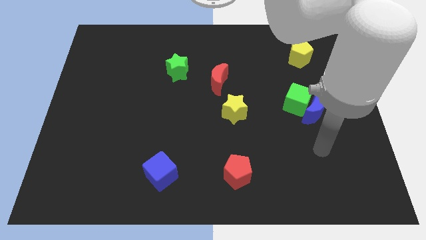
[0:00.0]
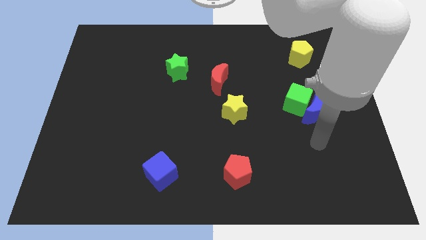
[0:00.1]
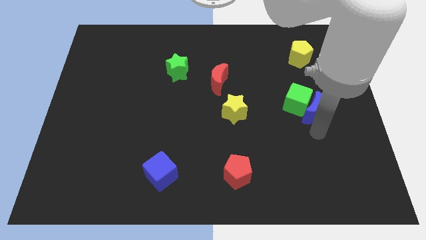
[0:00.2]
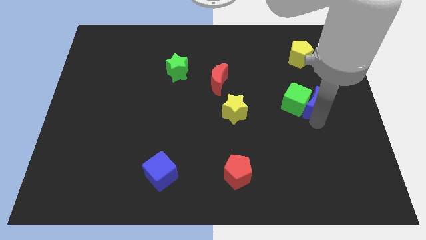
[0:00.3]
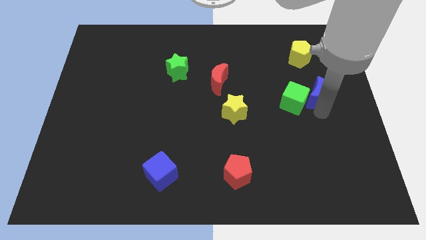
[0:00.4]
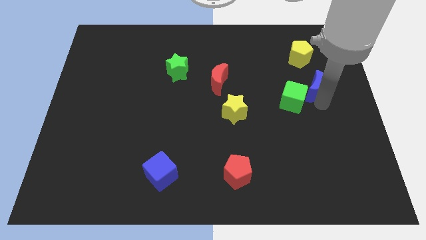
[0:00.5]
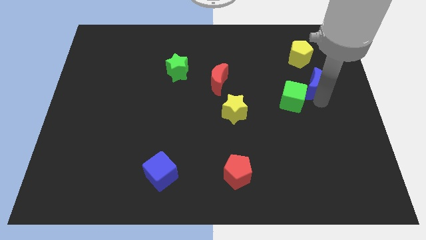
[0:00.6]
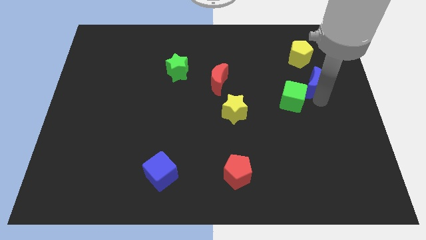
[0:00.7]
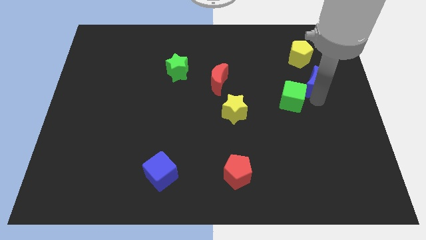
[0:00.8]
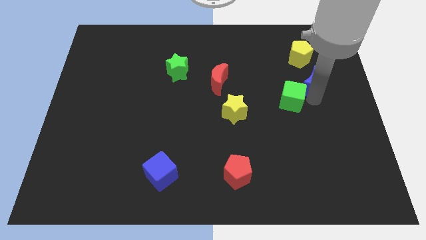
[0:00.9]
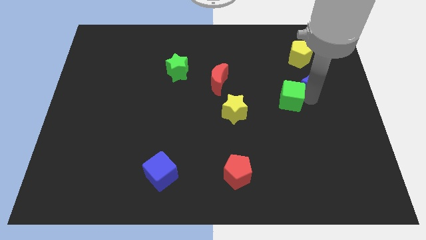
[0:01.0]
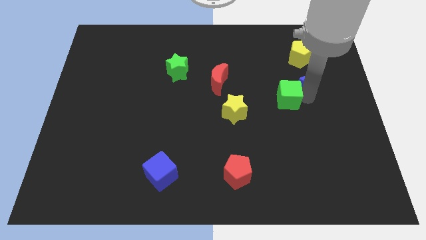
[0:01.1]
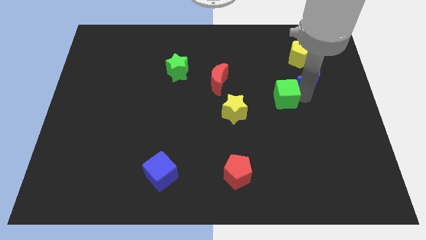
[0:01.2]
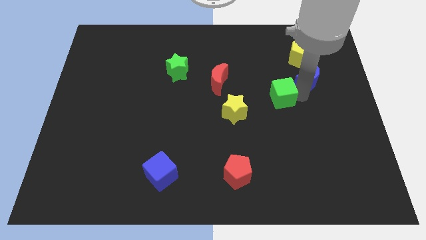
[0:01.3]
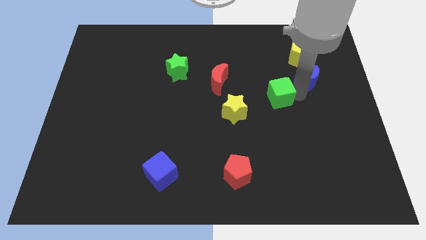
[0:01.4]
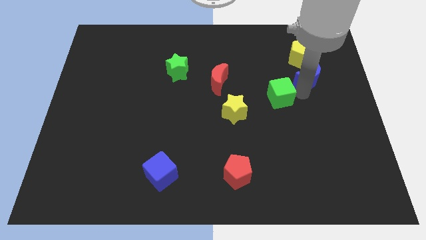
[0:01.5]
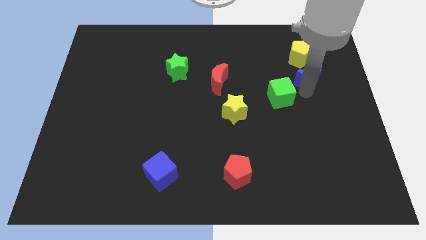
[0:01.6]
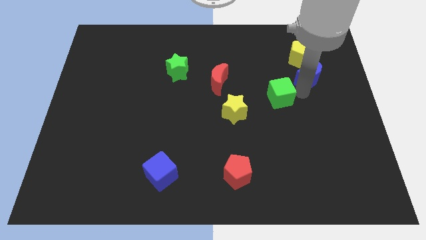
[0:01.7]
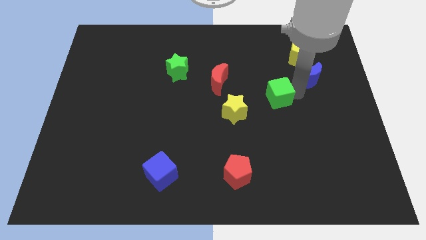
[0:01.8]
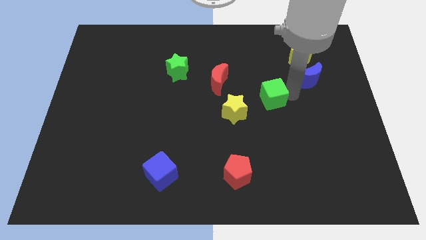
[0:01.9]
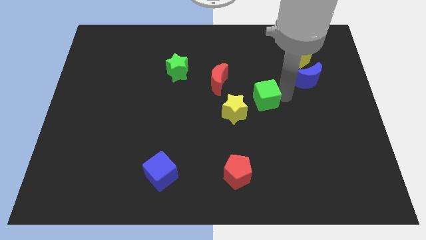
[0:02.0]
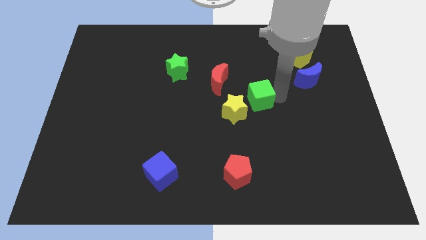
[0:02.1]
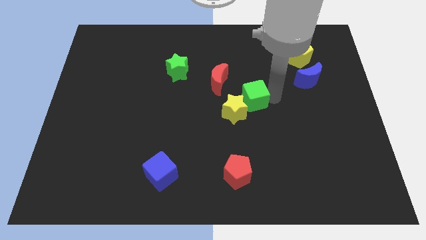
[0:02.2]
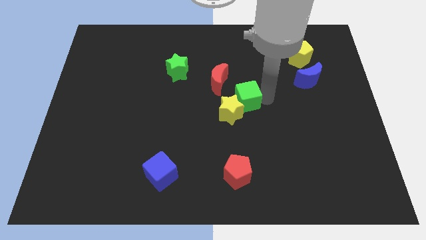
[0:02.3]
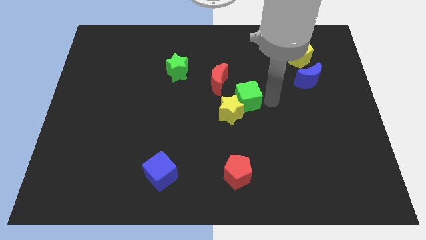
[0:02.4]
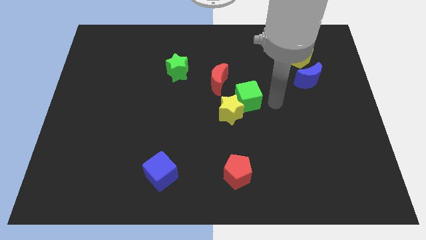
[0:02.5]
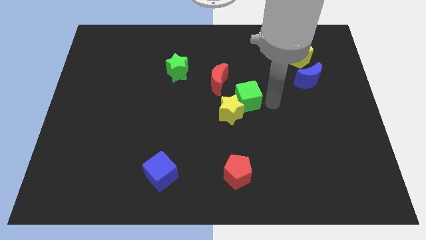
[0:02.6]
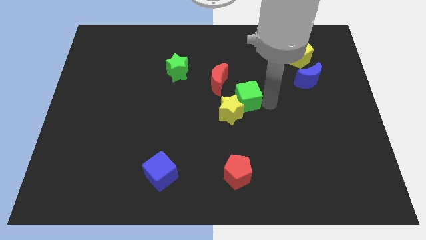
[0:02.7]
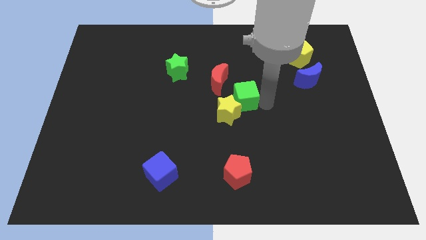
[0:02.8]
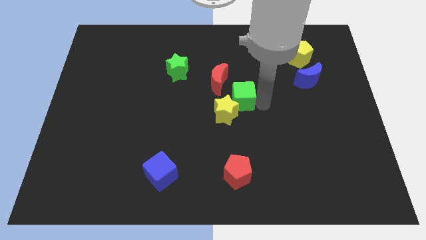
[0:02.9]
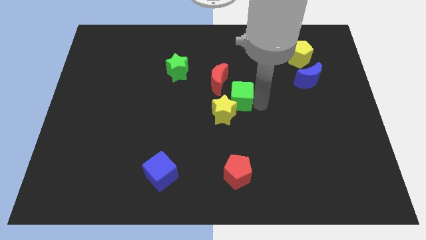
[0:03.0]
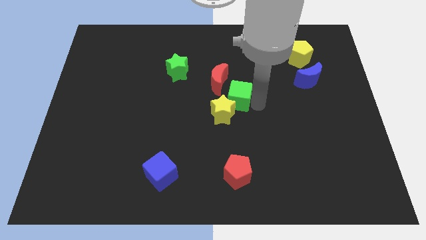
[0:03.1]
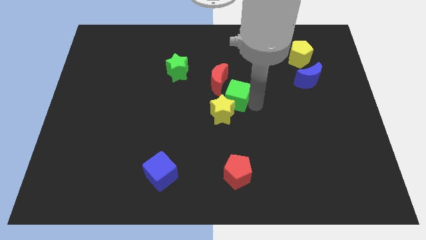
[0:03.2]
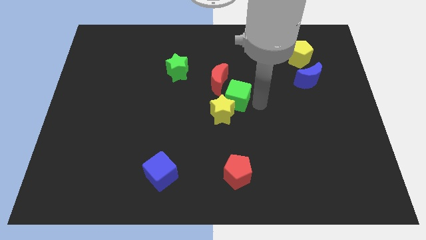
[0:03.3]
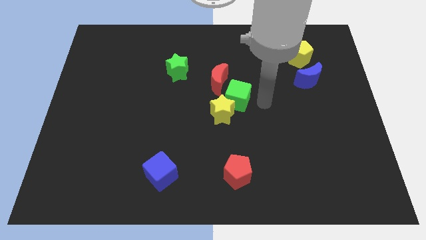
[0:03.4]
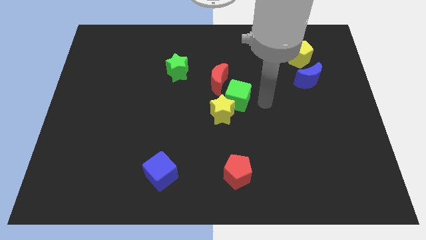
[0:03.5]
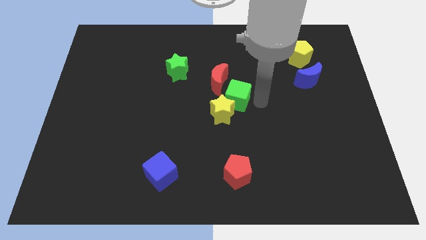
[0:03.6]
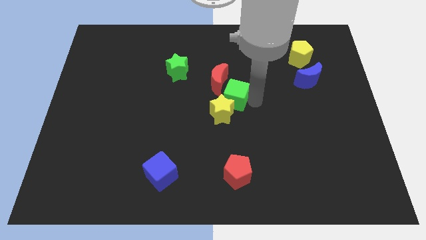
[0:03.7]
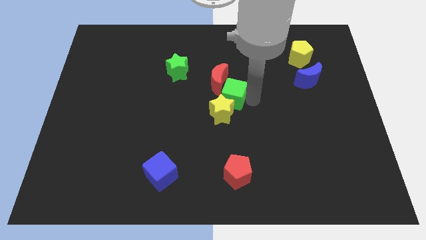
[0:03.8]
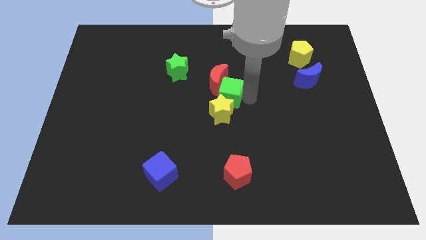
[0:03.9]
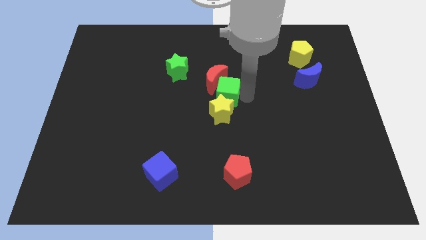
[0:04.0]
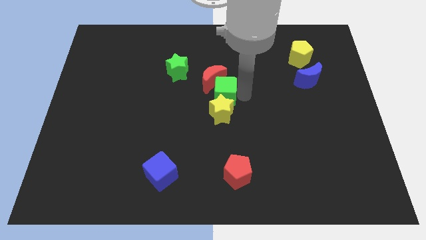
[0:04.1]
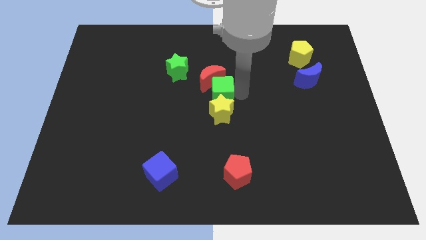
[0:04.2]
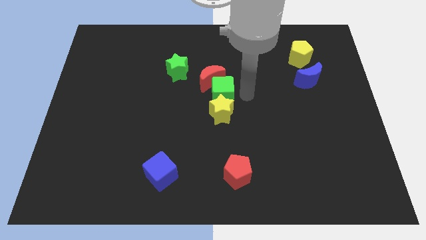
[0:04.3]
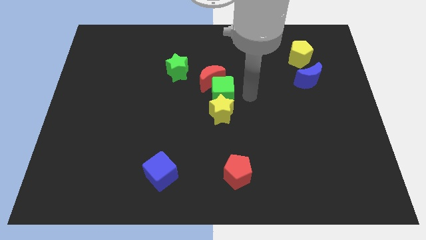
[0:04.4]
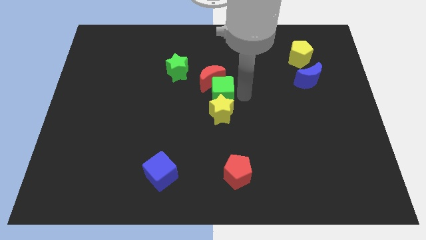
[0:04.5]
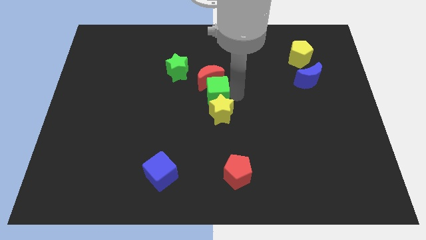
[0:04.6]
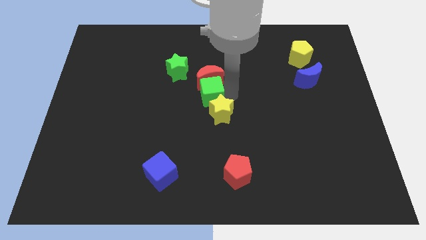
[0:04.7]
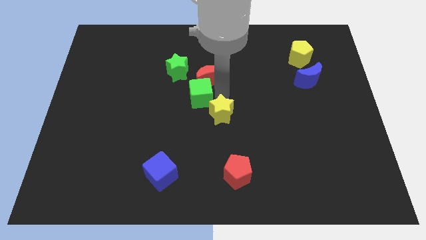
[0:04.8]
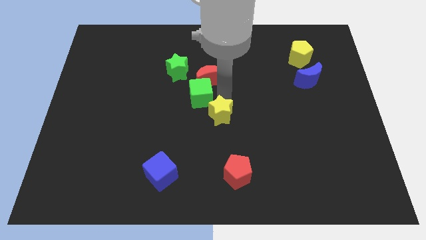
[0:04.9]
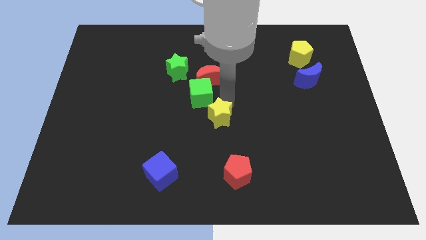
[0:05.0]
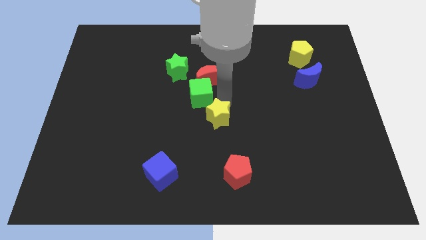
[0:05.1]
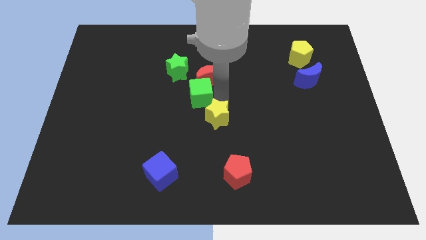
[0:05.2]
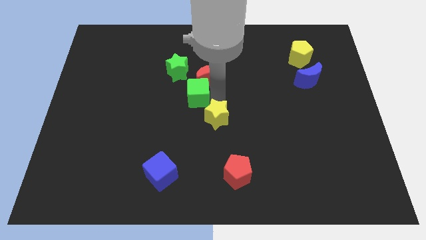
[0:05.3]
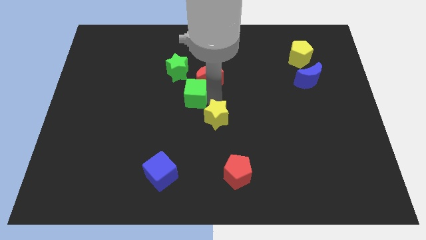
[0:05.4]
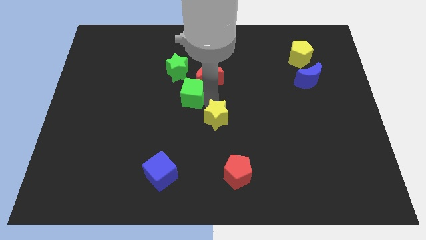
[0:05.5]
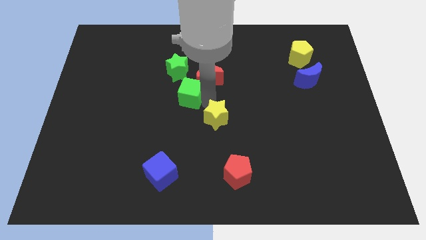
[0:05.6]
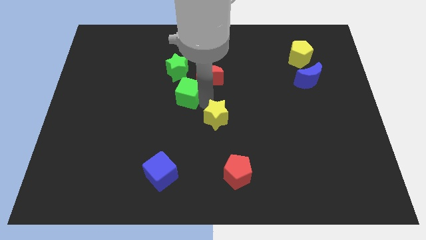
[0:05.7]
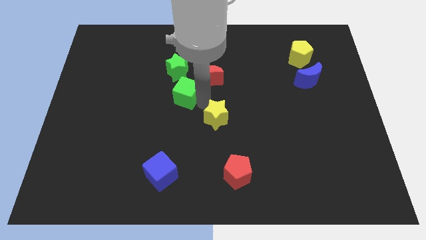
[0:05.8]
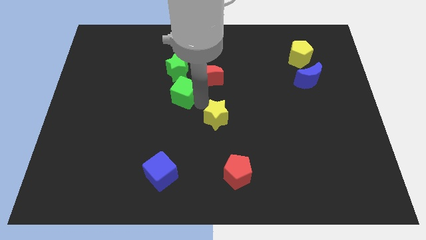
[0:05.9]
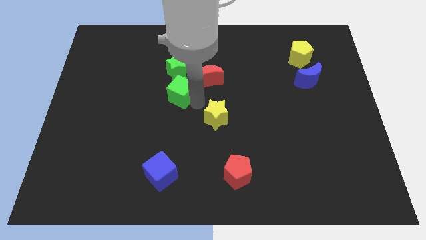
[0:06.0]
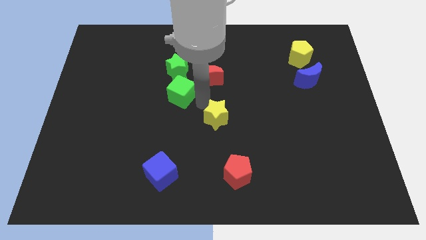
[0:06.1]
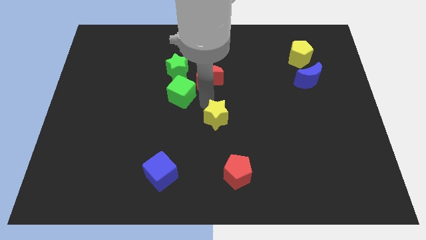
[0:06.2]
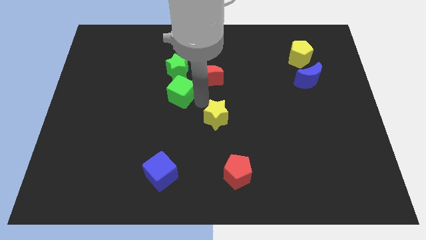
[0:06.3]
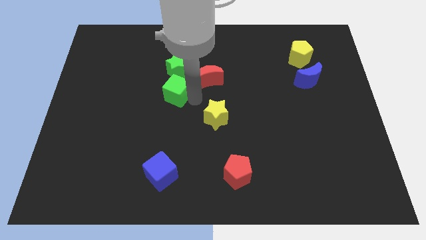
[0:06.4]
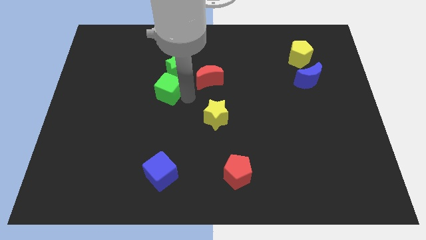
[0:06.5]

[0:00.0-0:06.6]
put the green cube to the bottom left side of the green star
